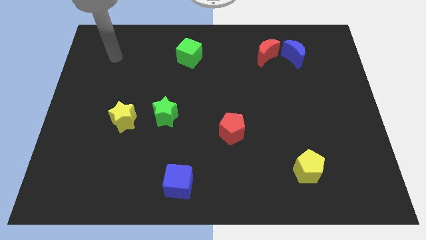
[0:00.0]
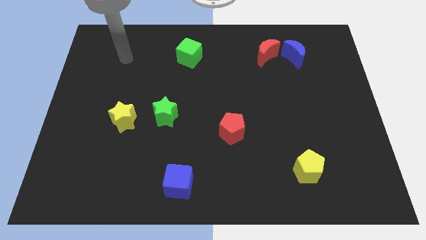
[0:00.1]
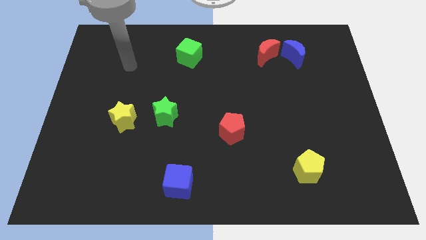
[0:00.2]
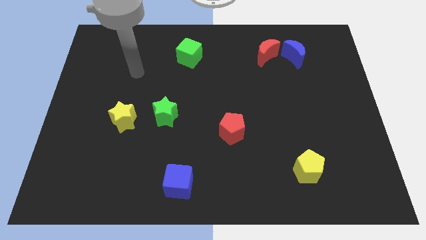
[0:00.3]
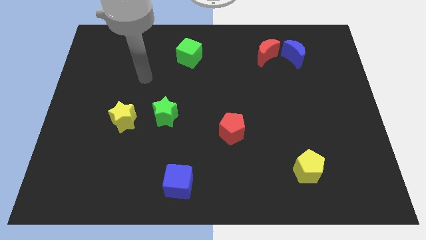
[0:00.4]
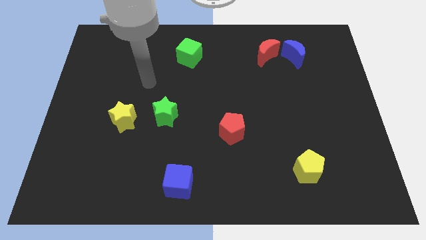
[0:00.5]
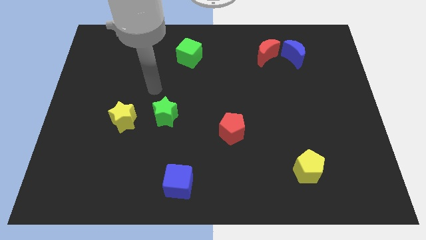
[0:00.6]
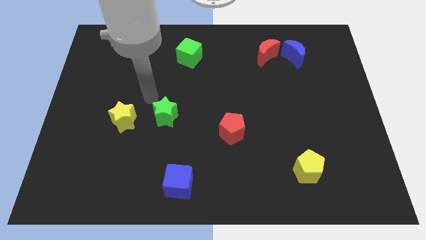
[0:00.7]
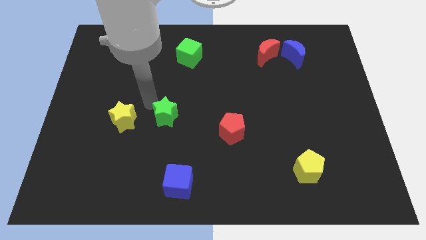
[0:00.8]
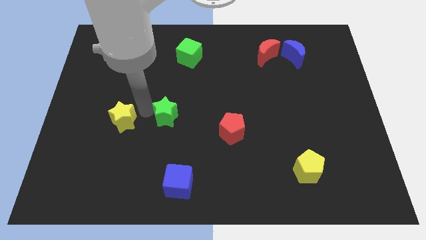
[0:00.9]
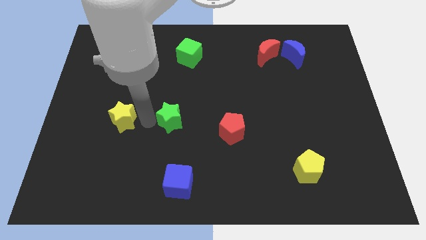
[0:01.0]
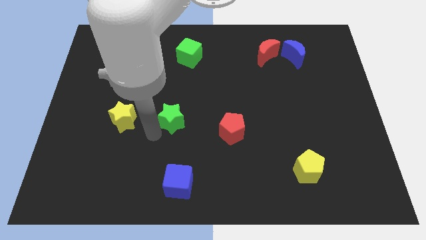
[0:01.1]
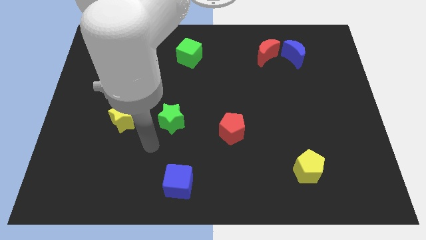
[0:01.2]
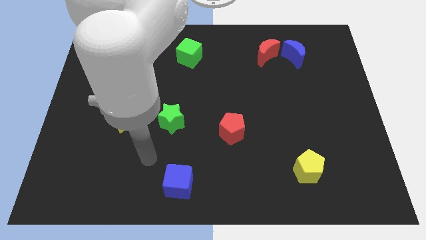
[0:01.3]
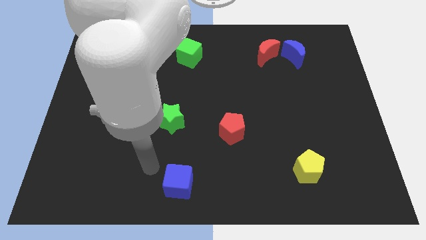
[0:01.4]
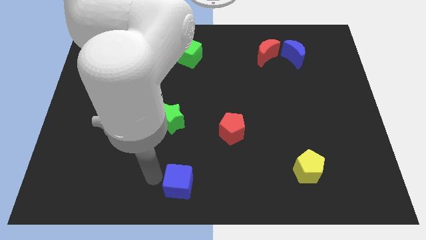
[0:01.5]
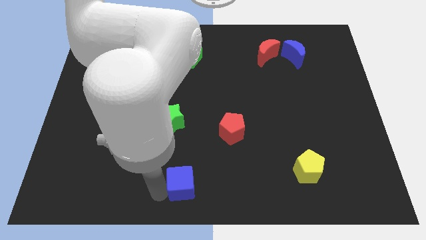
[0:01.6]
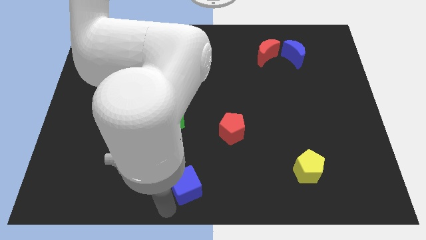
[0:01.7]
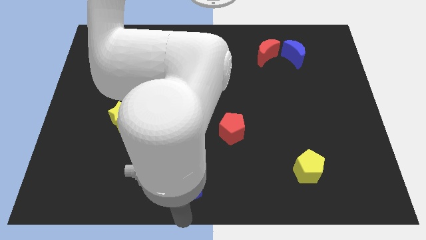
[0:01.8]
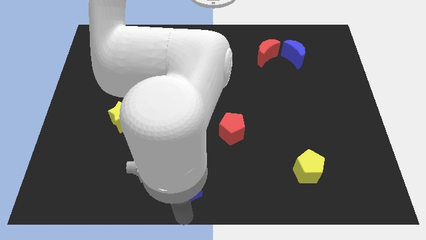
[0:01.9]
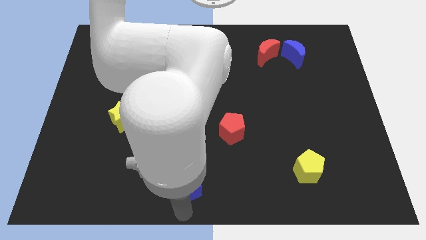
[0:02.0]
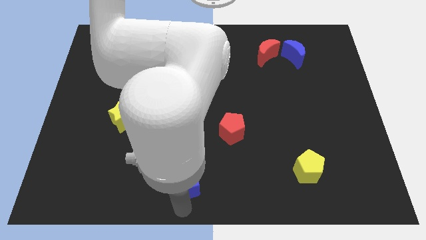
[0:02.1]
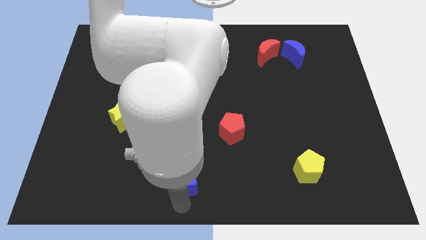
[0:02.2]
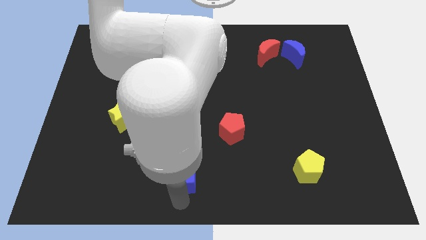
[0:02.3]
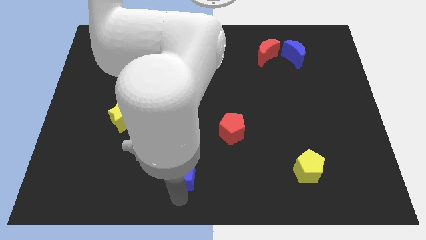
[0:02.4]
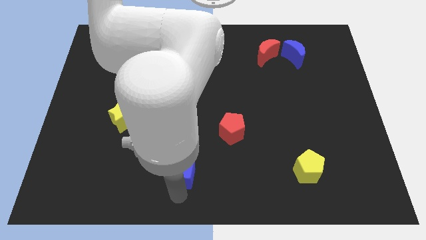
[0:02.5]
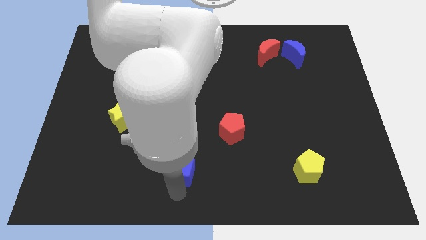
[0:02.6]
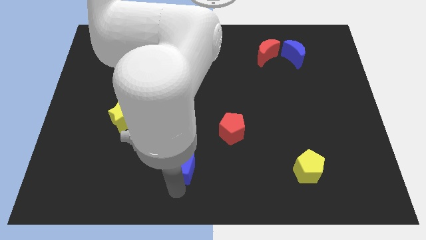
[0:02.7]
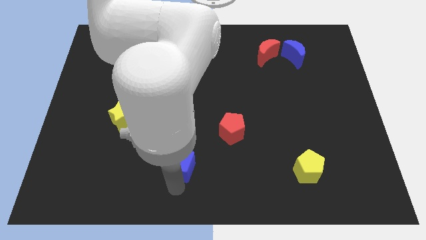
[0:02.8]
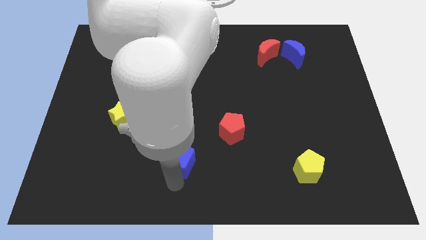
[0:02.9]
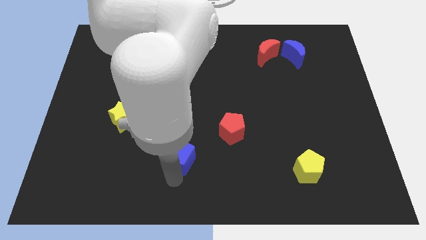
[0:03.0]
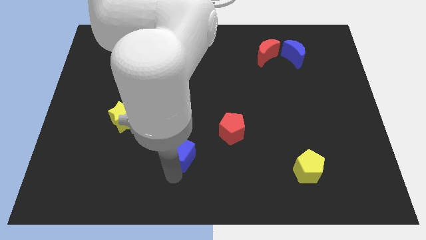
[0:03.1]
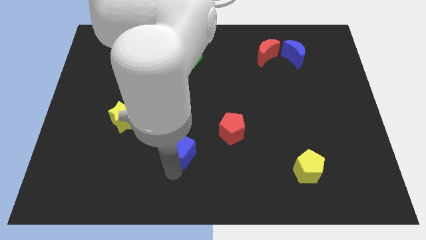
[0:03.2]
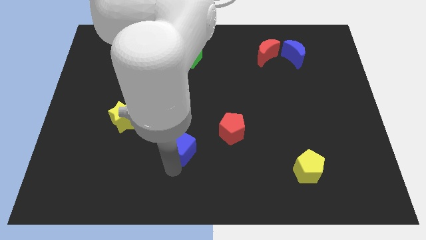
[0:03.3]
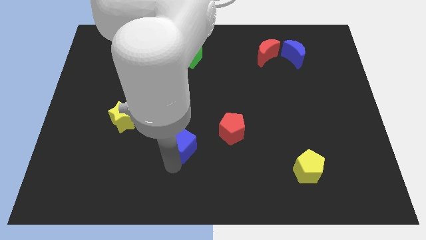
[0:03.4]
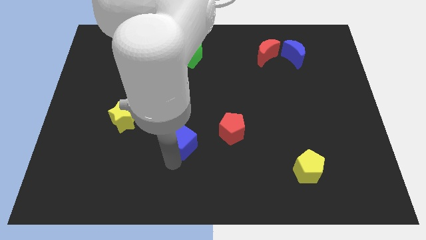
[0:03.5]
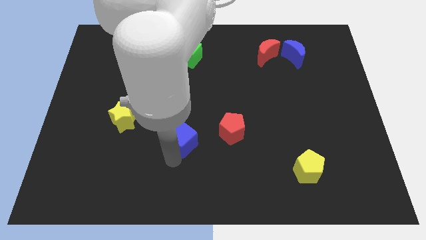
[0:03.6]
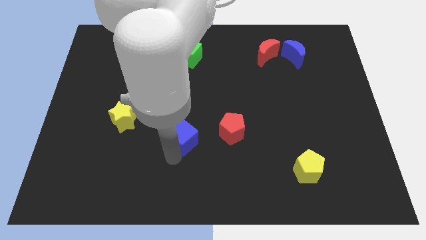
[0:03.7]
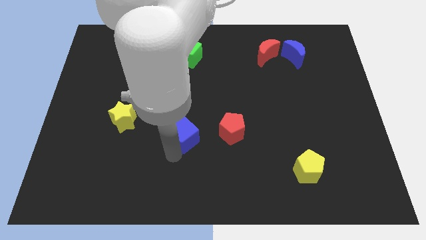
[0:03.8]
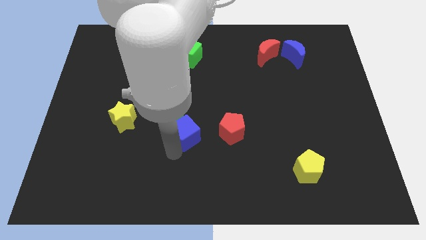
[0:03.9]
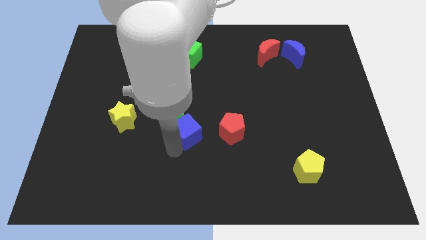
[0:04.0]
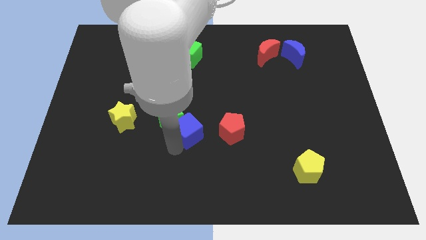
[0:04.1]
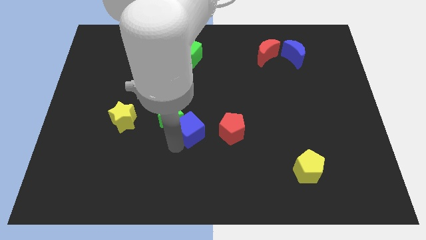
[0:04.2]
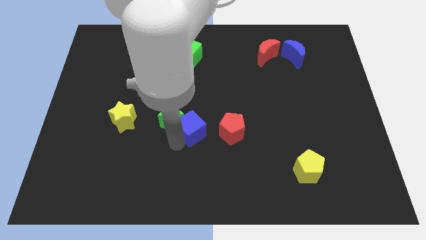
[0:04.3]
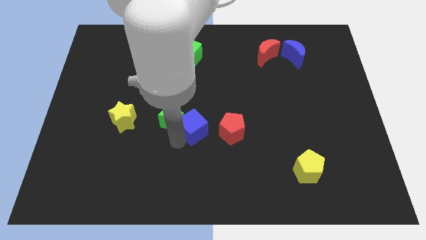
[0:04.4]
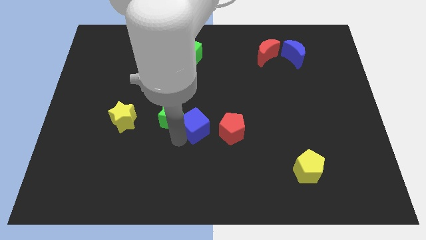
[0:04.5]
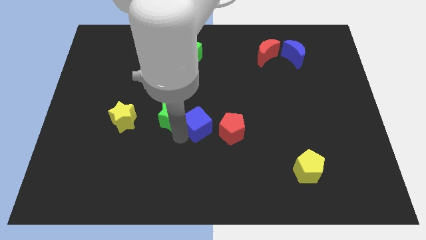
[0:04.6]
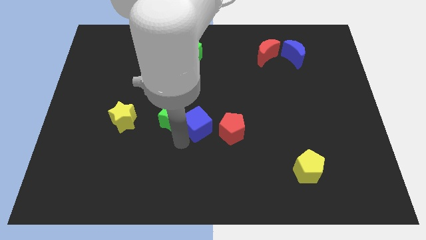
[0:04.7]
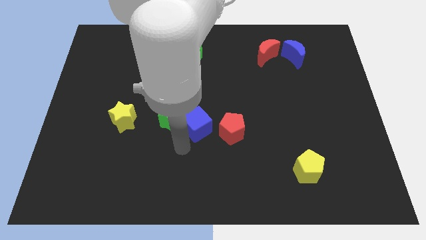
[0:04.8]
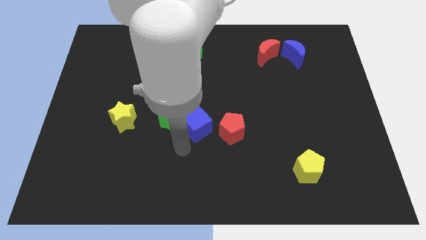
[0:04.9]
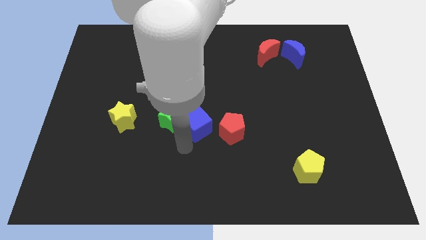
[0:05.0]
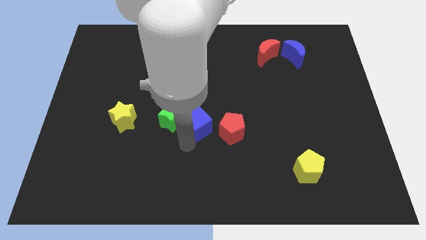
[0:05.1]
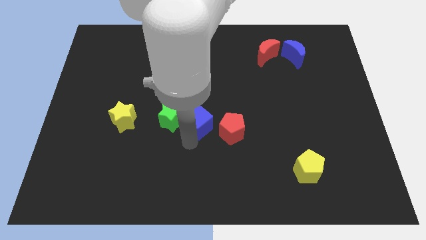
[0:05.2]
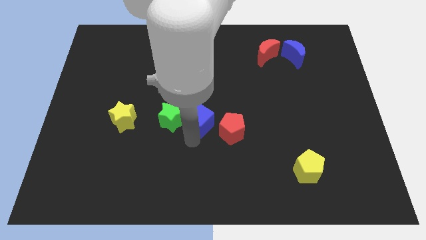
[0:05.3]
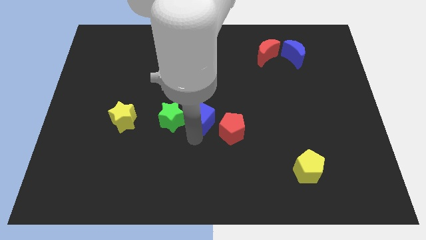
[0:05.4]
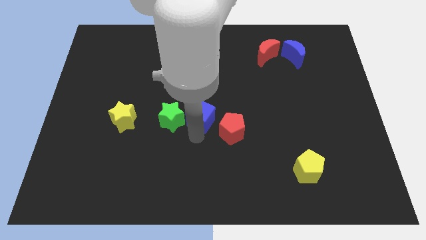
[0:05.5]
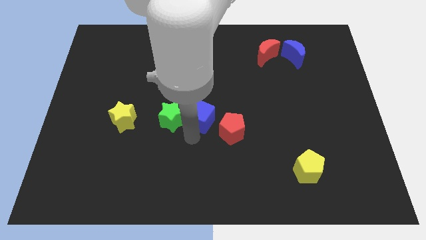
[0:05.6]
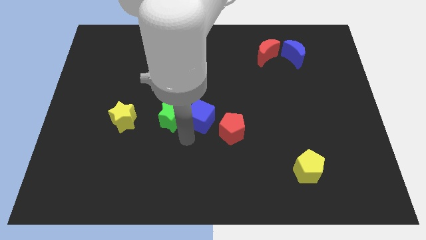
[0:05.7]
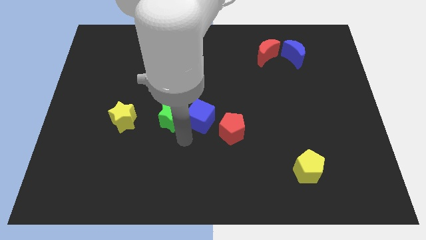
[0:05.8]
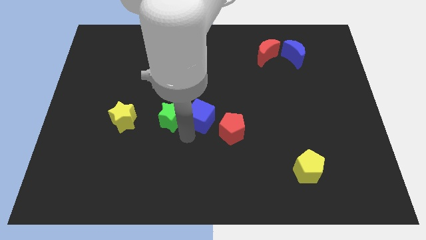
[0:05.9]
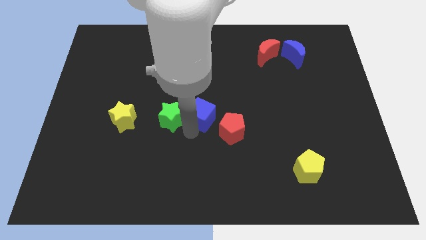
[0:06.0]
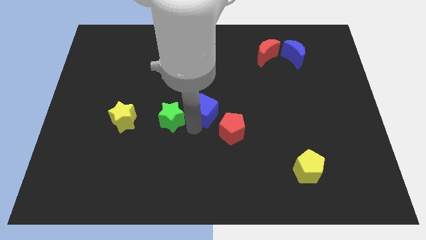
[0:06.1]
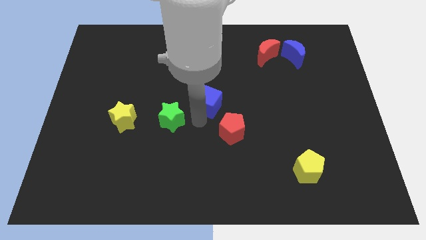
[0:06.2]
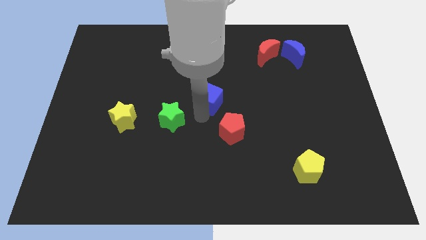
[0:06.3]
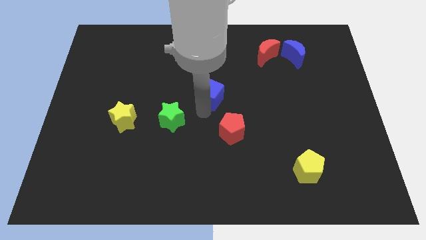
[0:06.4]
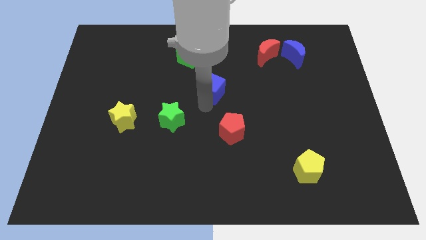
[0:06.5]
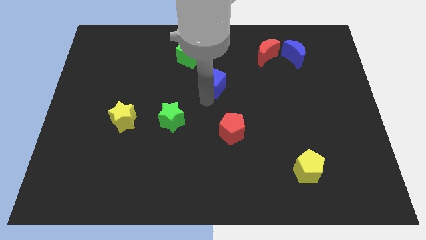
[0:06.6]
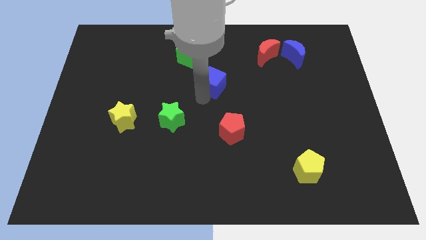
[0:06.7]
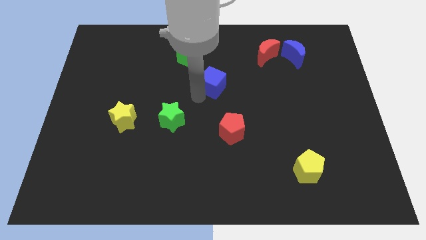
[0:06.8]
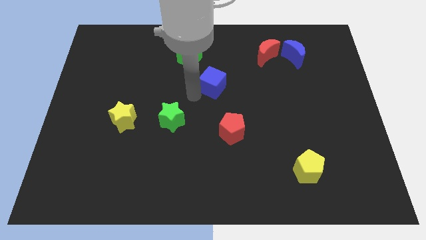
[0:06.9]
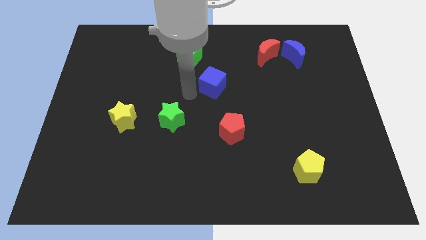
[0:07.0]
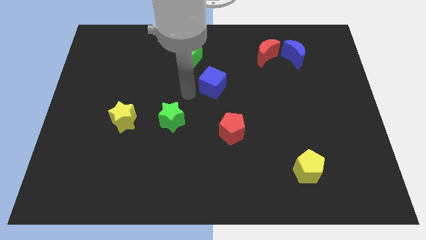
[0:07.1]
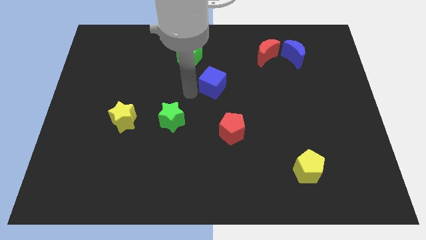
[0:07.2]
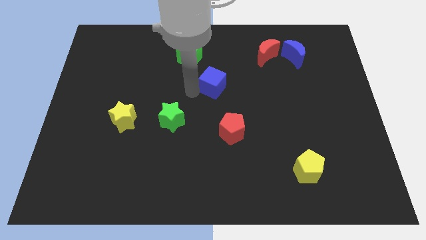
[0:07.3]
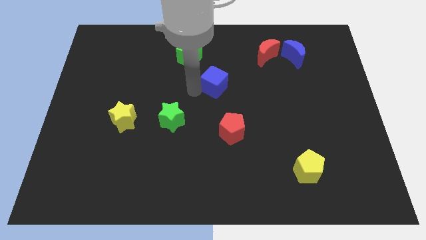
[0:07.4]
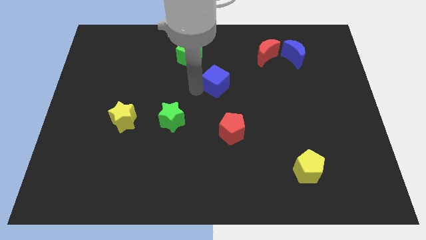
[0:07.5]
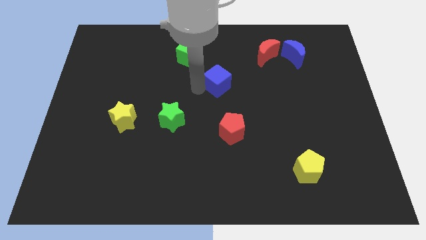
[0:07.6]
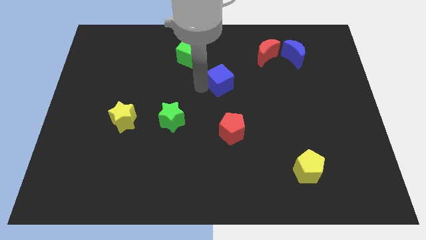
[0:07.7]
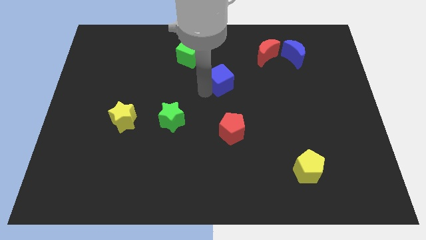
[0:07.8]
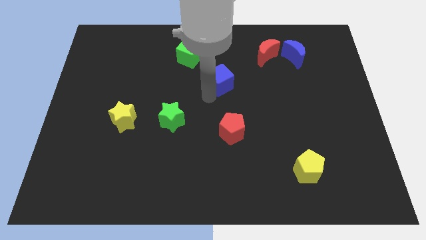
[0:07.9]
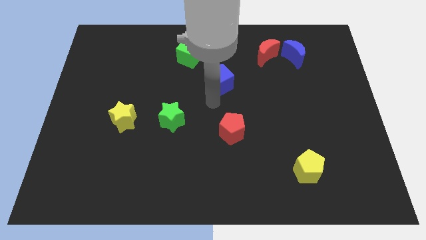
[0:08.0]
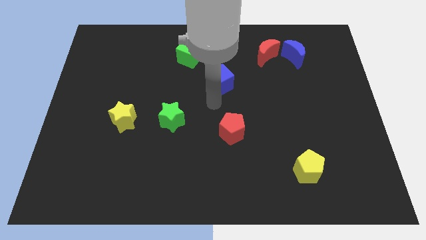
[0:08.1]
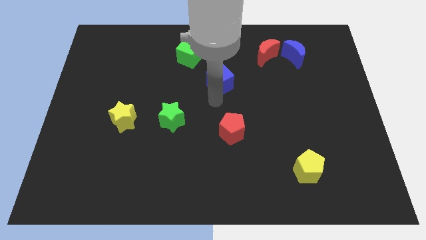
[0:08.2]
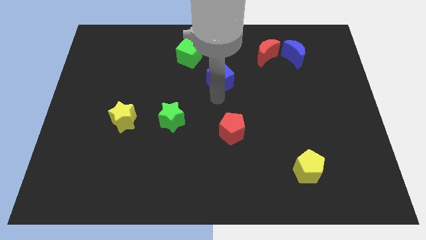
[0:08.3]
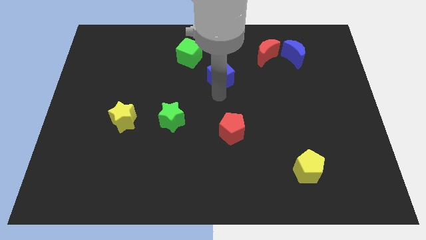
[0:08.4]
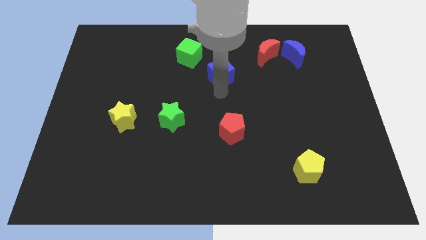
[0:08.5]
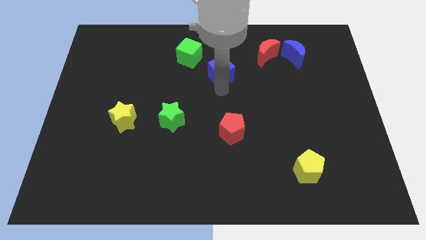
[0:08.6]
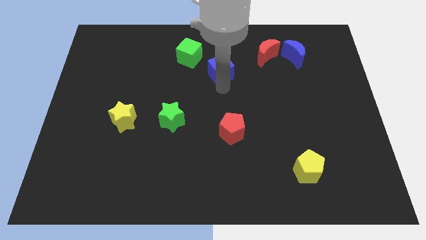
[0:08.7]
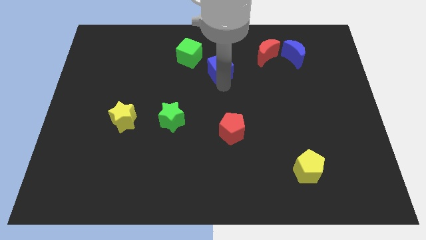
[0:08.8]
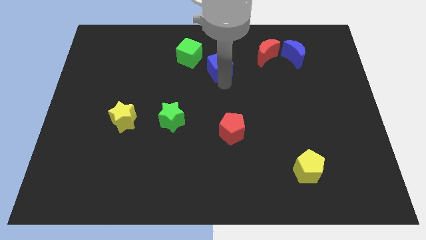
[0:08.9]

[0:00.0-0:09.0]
put the blue cube to the right side of the green cube
